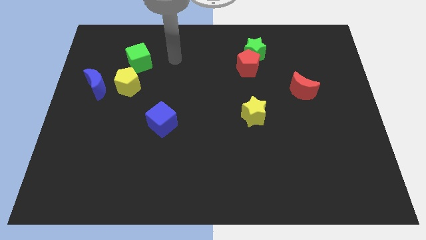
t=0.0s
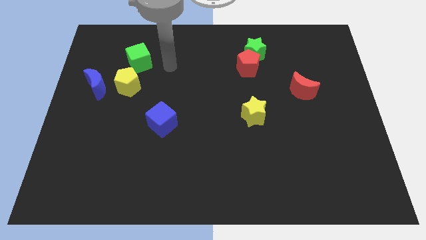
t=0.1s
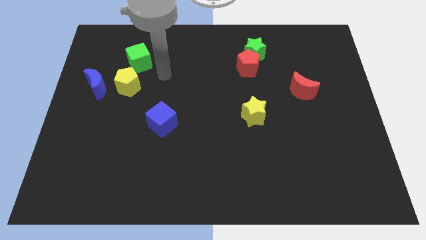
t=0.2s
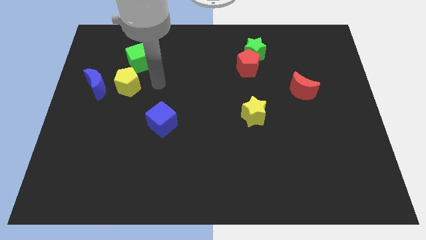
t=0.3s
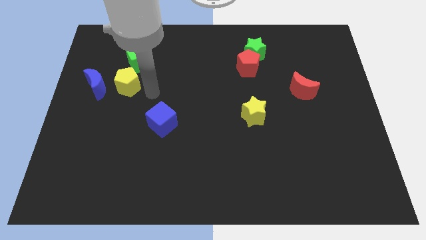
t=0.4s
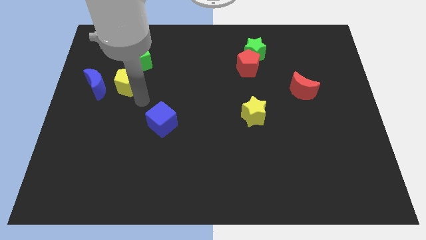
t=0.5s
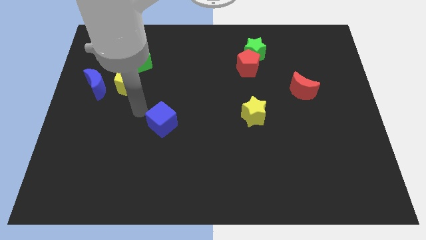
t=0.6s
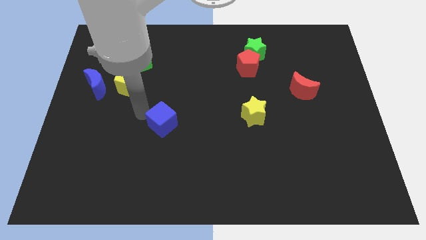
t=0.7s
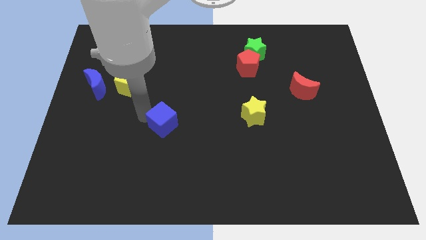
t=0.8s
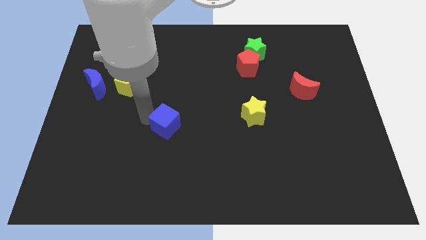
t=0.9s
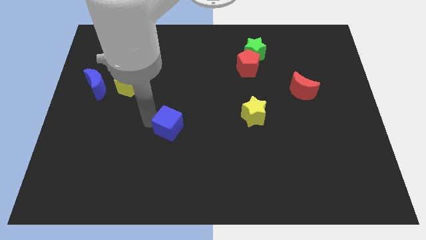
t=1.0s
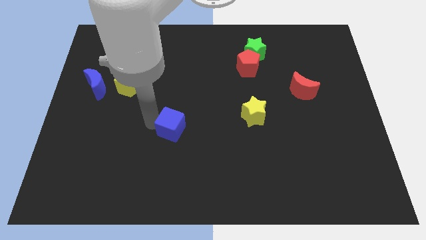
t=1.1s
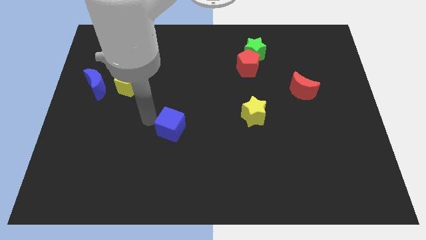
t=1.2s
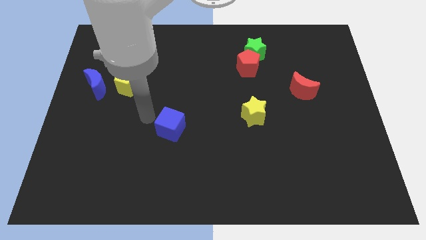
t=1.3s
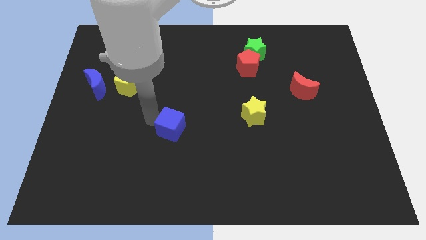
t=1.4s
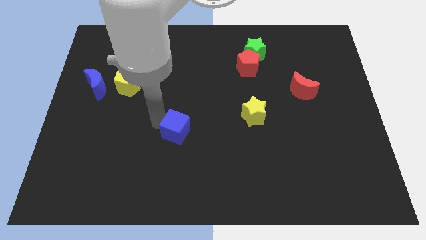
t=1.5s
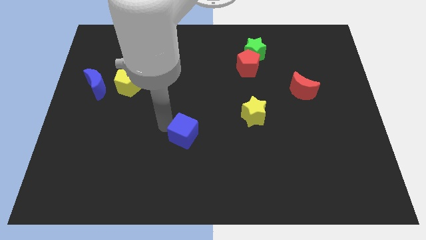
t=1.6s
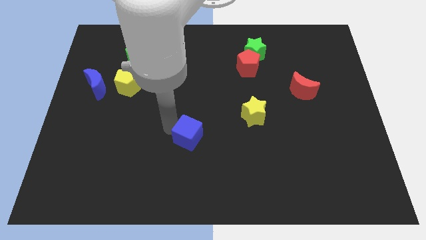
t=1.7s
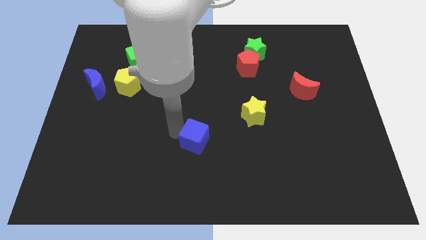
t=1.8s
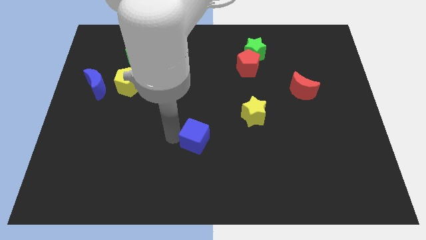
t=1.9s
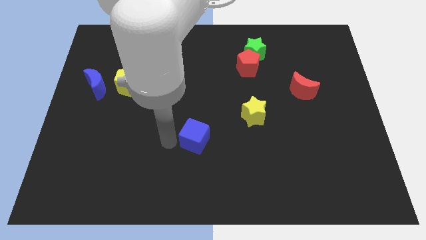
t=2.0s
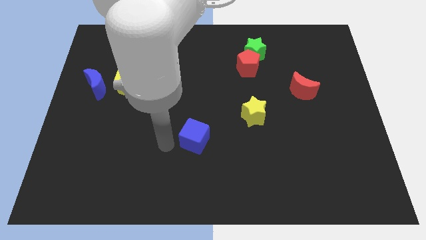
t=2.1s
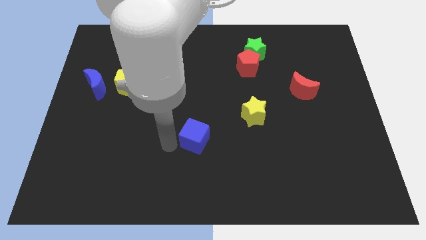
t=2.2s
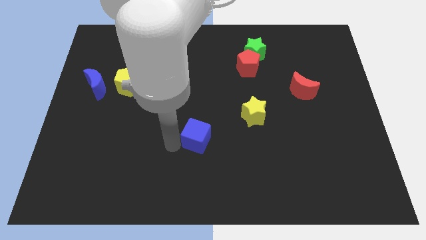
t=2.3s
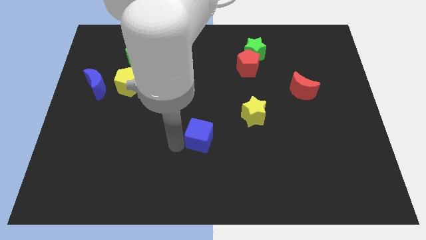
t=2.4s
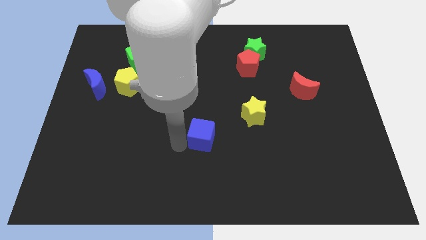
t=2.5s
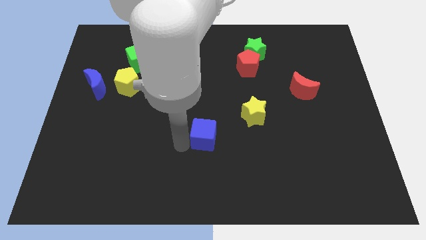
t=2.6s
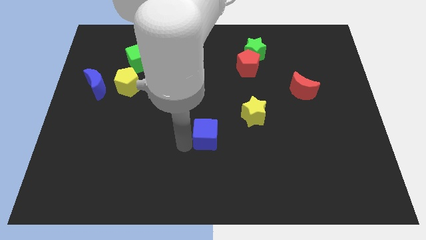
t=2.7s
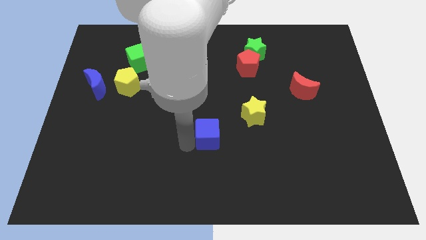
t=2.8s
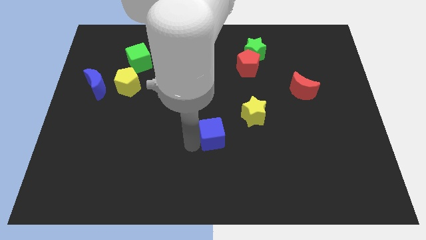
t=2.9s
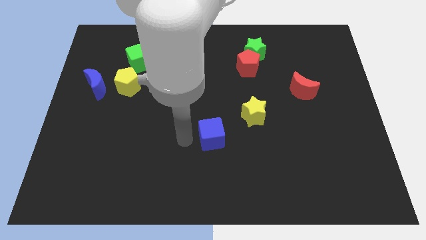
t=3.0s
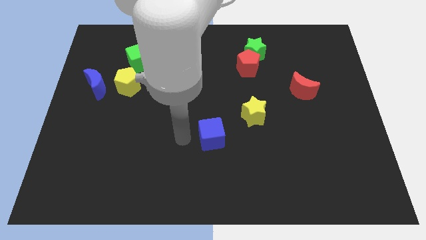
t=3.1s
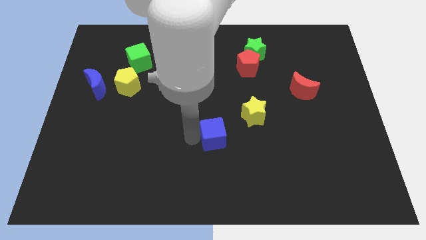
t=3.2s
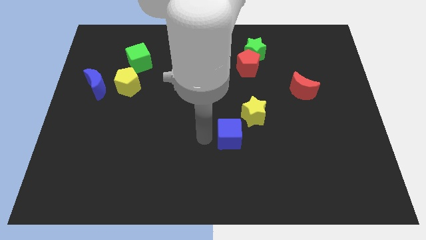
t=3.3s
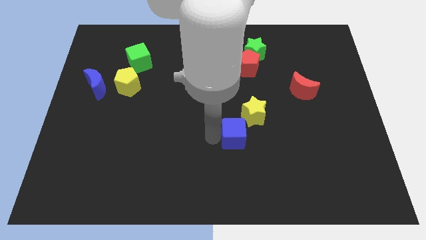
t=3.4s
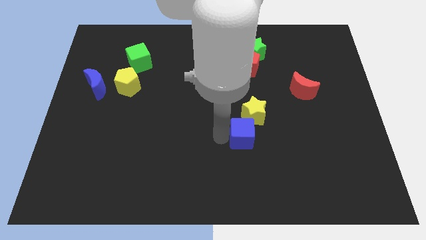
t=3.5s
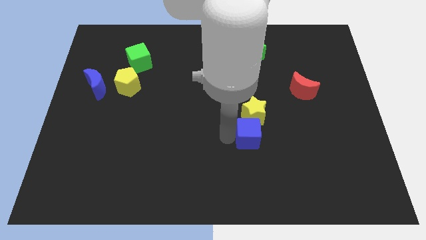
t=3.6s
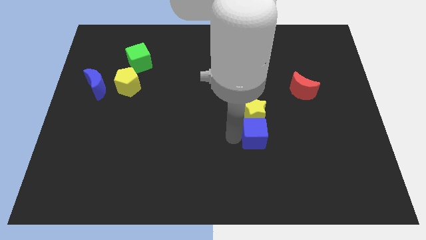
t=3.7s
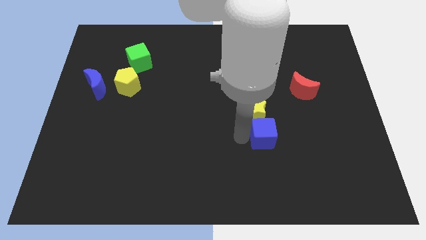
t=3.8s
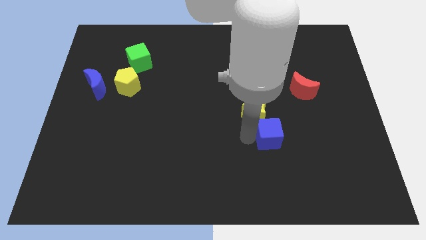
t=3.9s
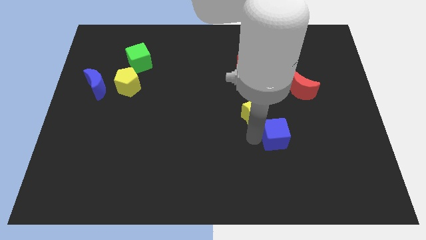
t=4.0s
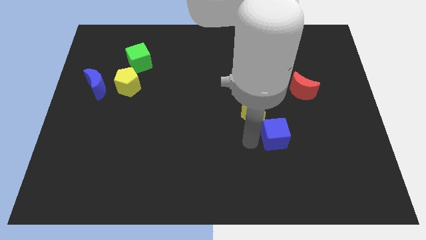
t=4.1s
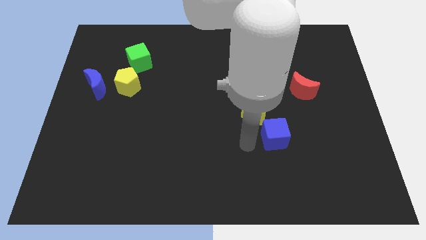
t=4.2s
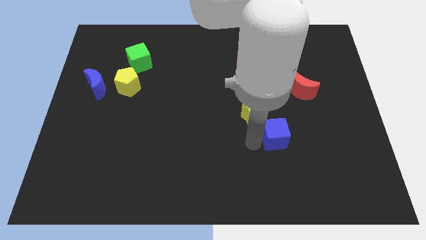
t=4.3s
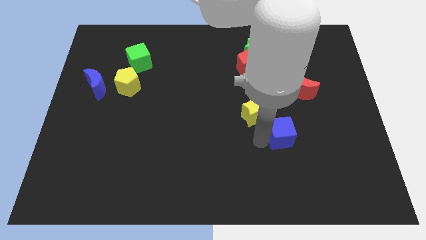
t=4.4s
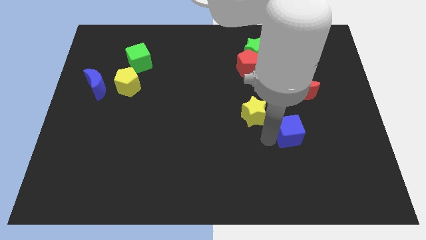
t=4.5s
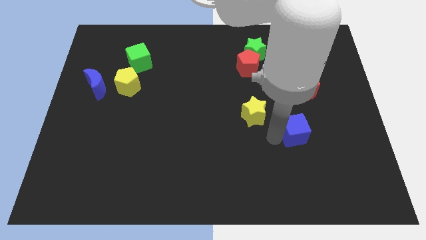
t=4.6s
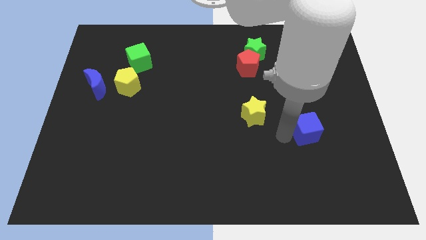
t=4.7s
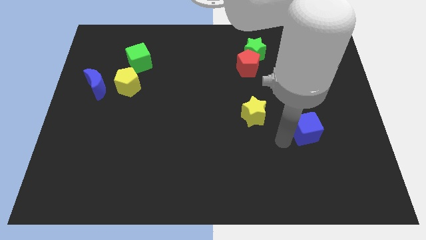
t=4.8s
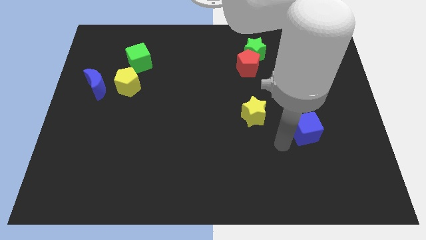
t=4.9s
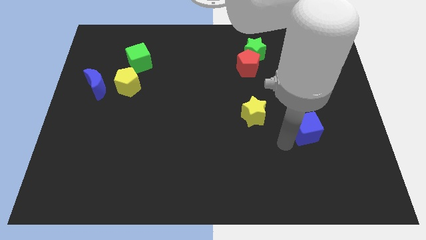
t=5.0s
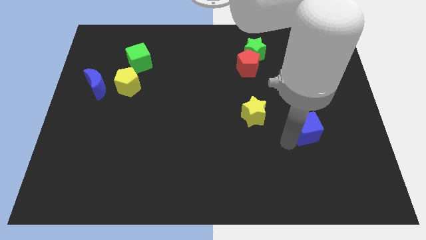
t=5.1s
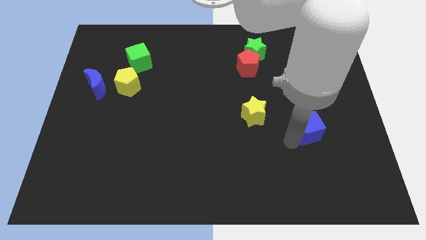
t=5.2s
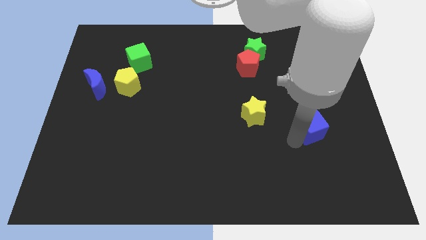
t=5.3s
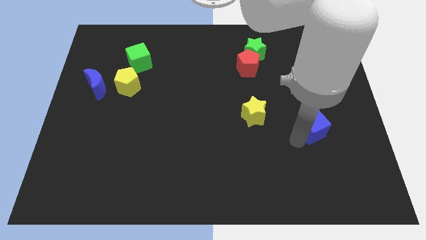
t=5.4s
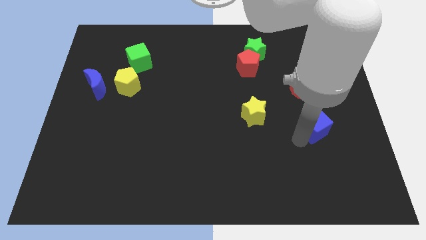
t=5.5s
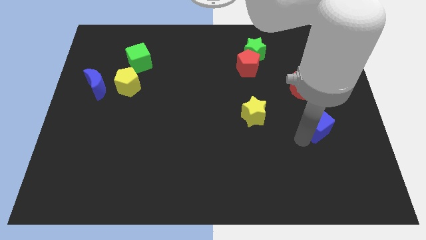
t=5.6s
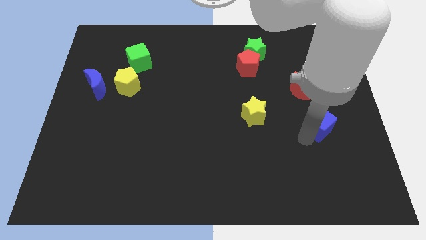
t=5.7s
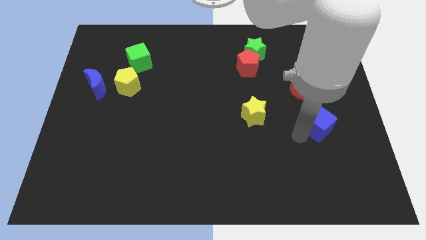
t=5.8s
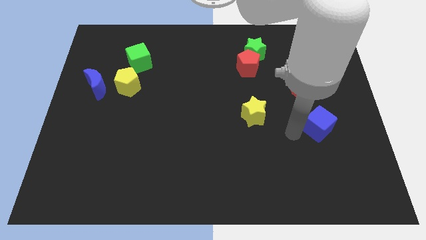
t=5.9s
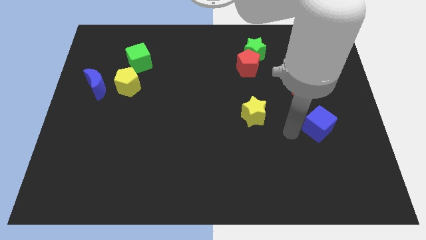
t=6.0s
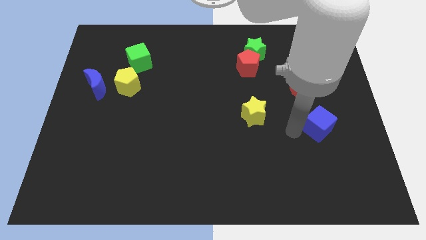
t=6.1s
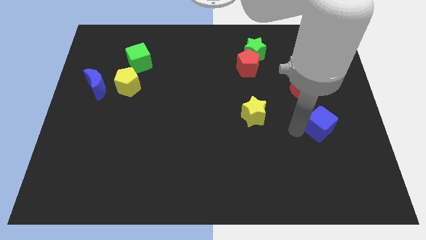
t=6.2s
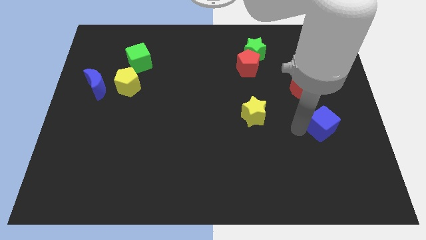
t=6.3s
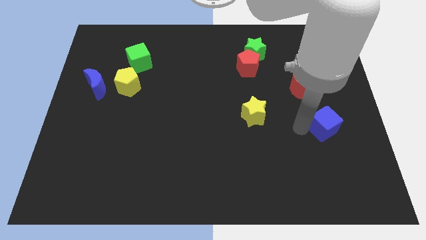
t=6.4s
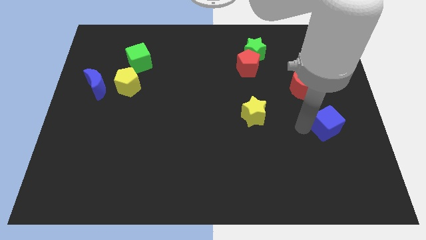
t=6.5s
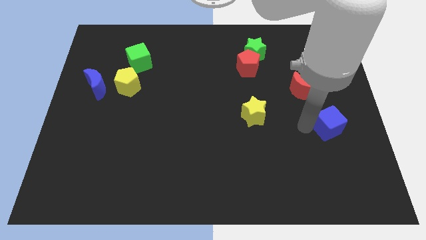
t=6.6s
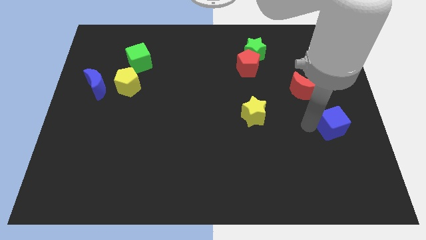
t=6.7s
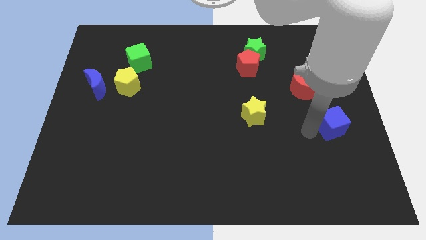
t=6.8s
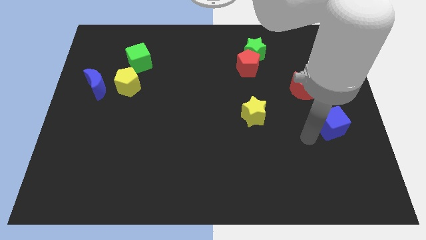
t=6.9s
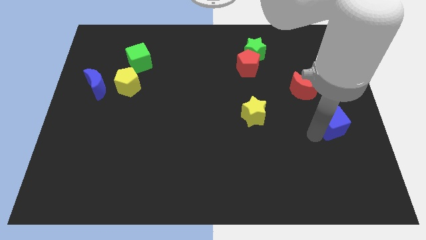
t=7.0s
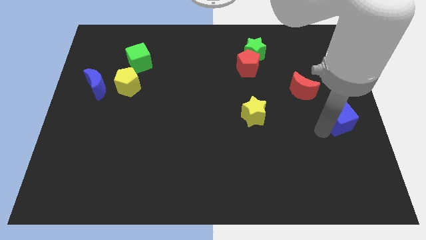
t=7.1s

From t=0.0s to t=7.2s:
push the blue cube to the right side of the board
